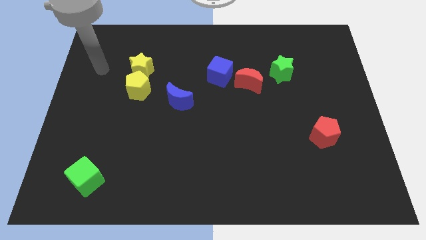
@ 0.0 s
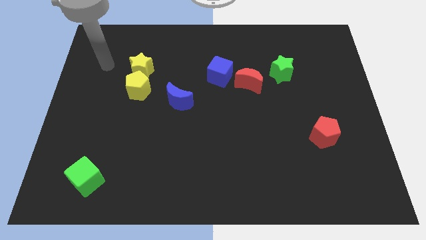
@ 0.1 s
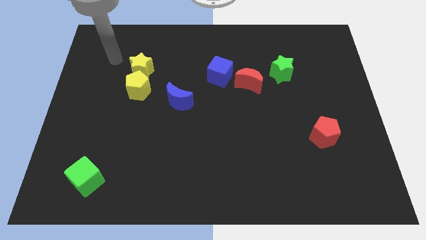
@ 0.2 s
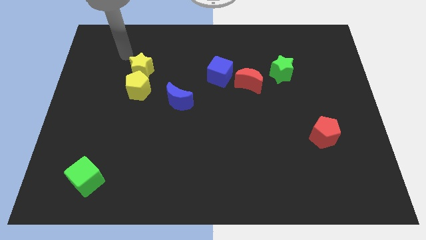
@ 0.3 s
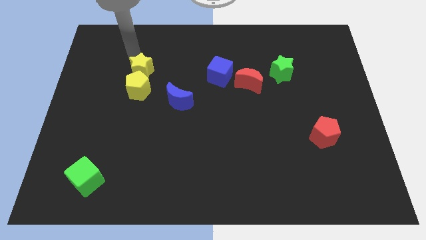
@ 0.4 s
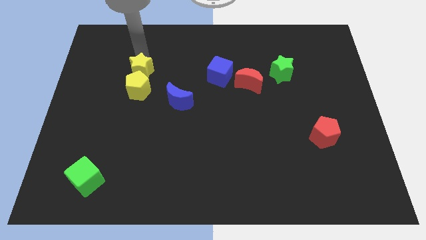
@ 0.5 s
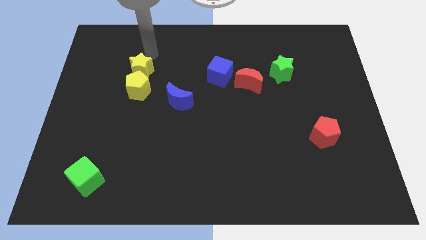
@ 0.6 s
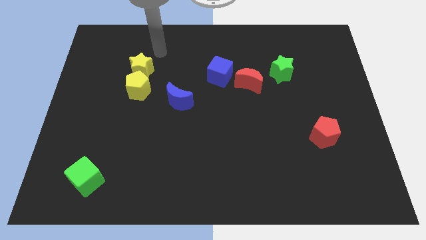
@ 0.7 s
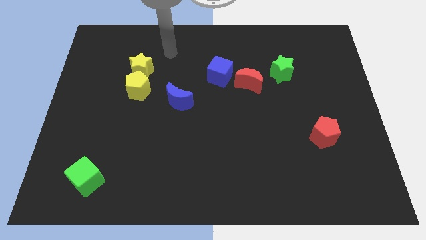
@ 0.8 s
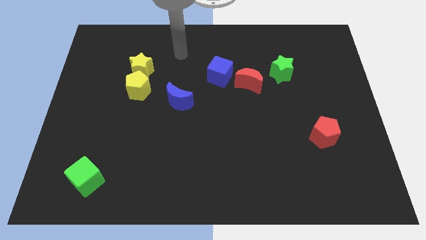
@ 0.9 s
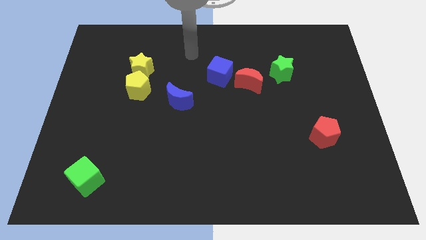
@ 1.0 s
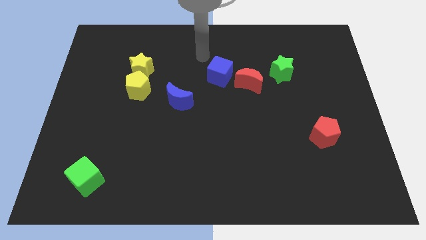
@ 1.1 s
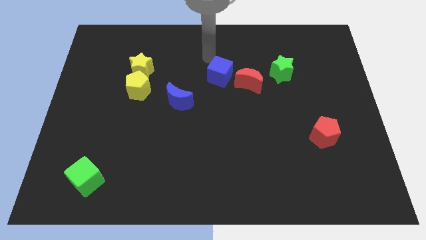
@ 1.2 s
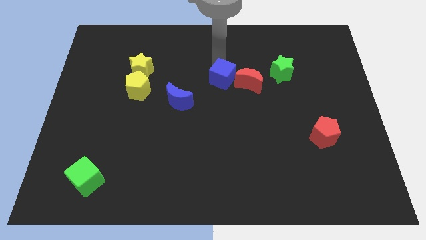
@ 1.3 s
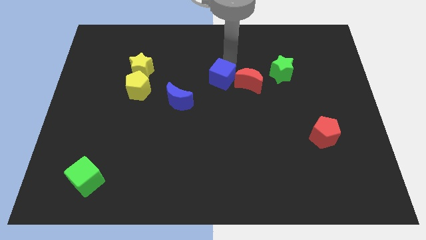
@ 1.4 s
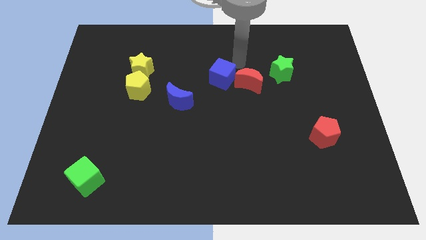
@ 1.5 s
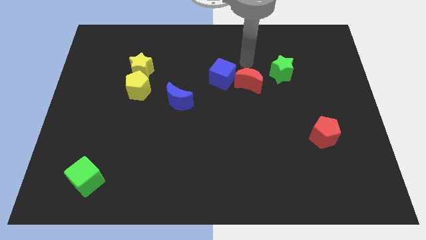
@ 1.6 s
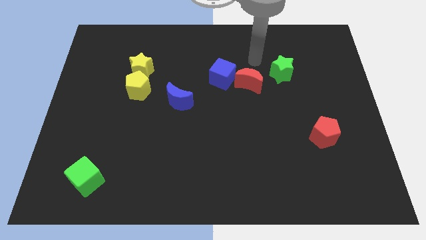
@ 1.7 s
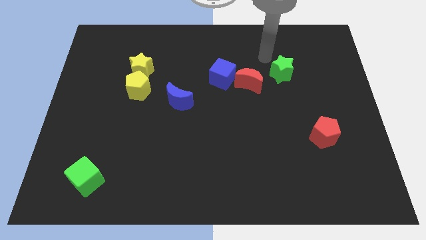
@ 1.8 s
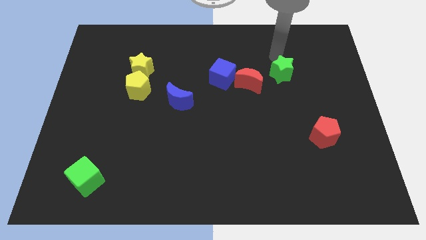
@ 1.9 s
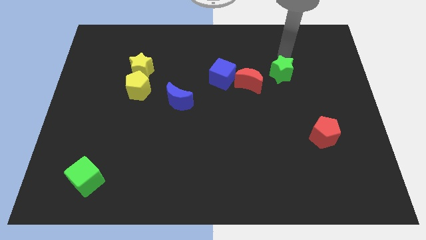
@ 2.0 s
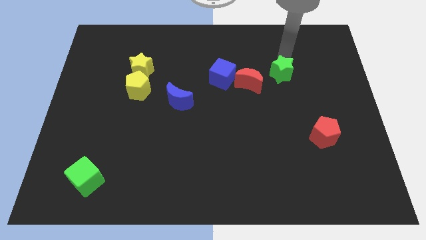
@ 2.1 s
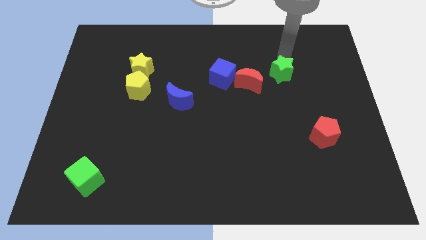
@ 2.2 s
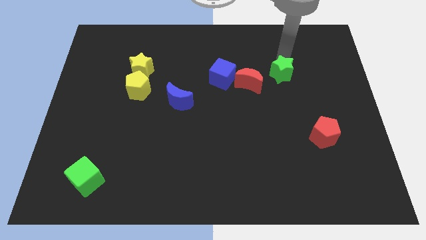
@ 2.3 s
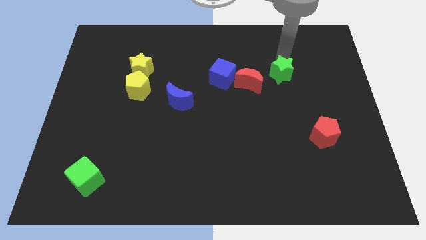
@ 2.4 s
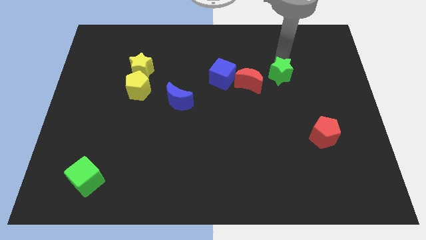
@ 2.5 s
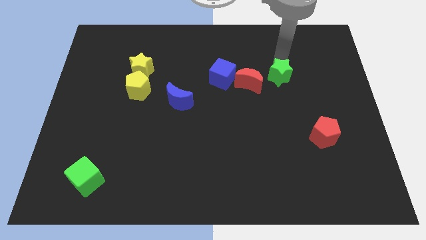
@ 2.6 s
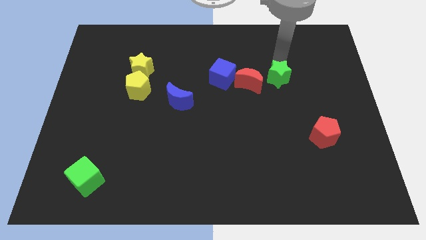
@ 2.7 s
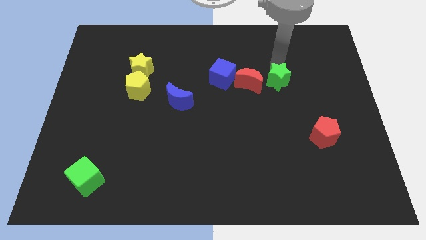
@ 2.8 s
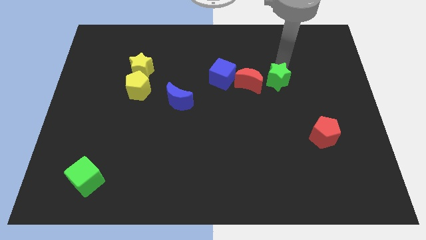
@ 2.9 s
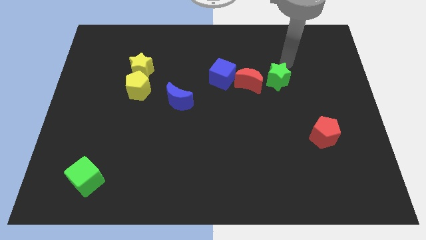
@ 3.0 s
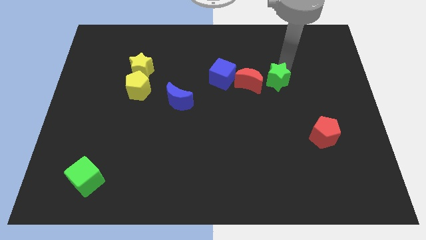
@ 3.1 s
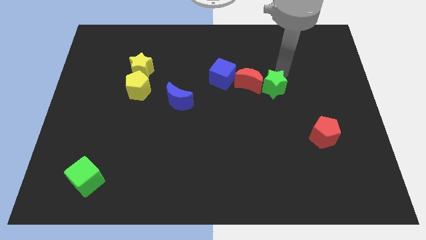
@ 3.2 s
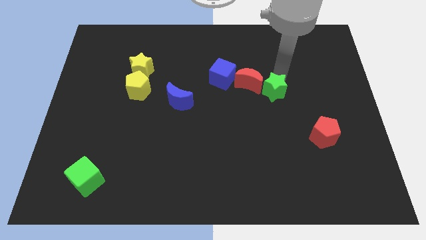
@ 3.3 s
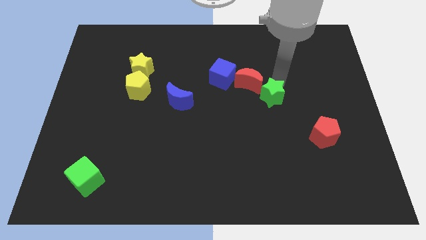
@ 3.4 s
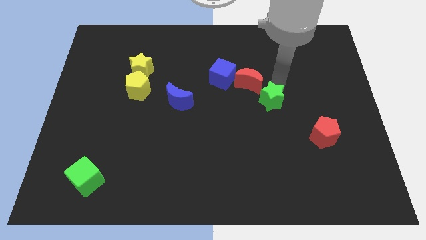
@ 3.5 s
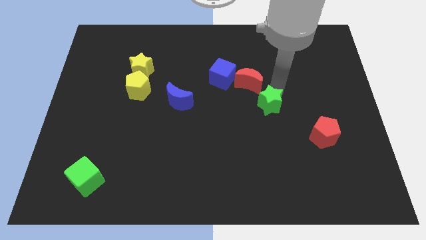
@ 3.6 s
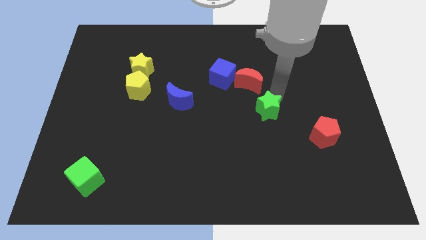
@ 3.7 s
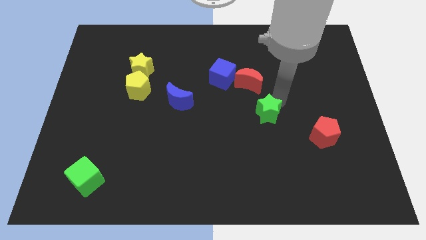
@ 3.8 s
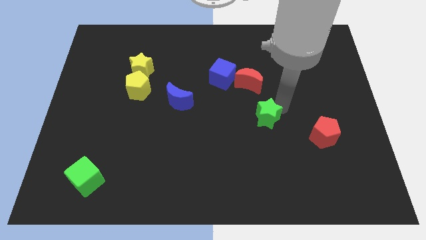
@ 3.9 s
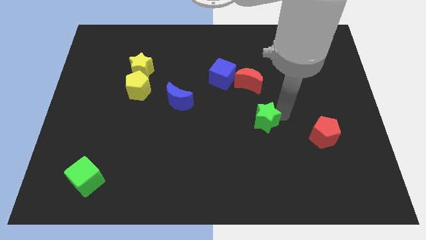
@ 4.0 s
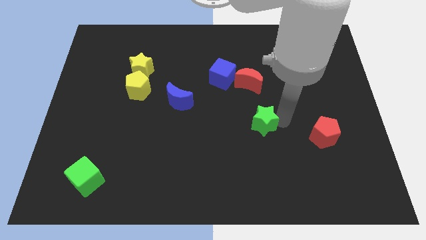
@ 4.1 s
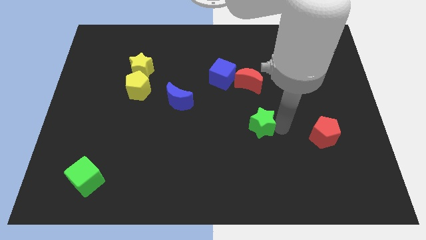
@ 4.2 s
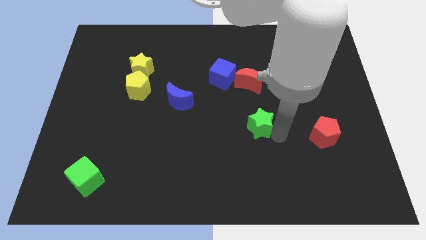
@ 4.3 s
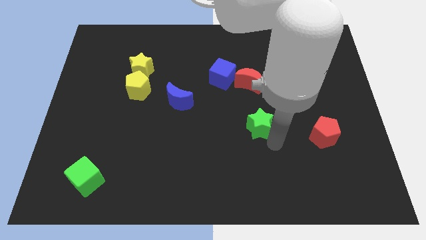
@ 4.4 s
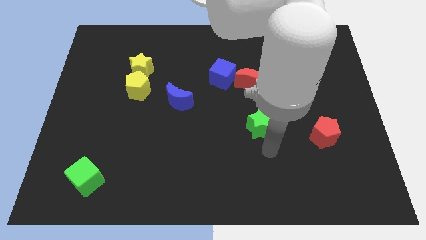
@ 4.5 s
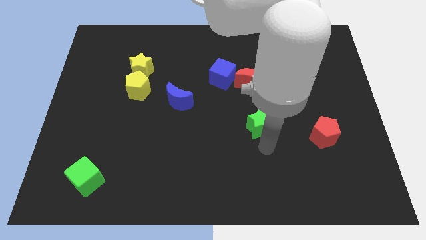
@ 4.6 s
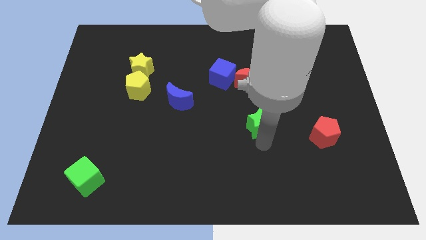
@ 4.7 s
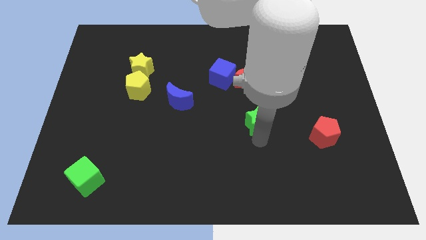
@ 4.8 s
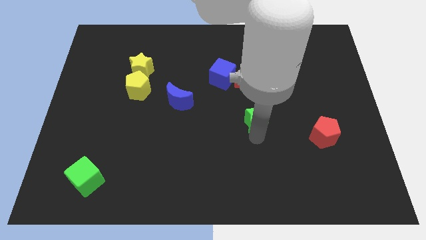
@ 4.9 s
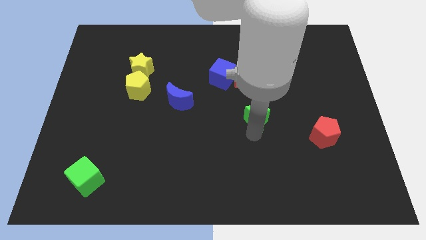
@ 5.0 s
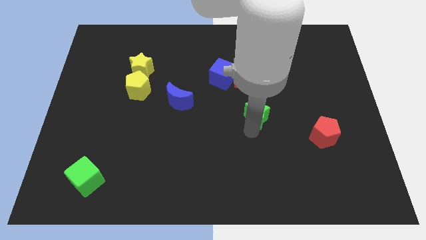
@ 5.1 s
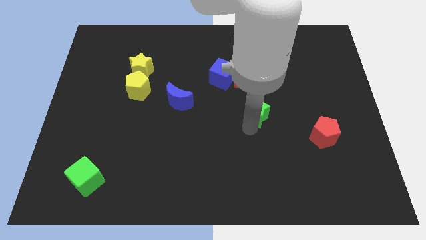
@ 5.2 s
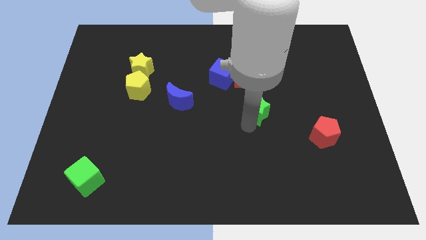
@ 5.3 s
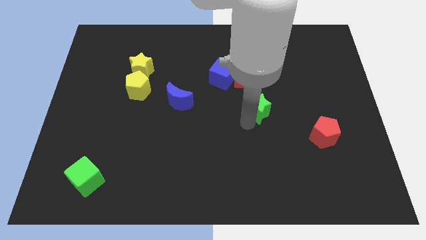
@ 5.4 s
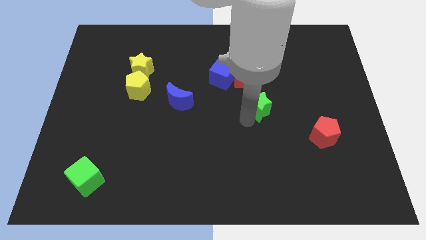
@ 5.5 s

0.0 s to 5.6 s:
push the green star to the bottom right side of the blue cube
